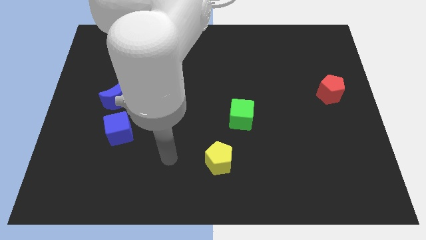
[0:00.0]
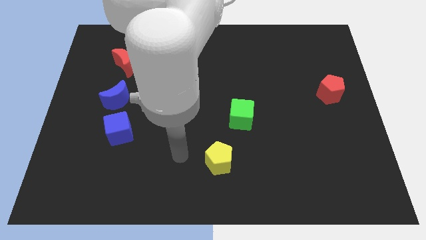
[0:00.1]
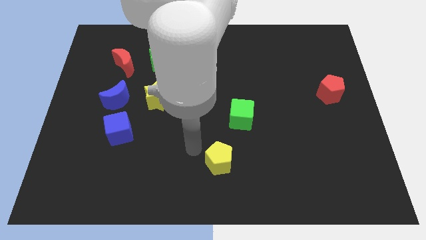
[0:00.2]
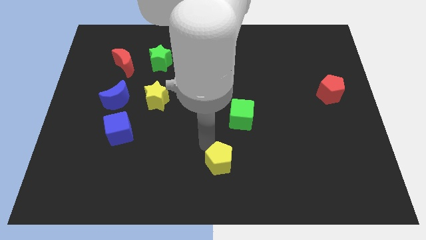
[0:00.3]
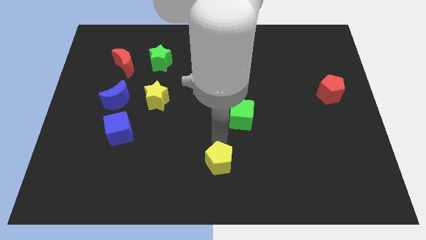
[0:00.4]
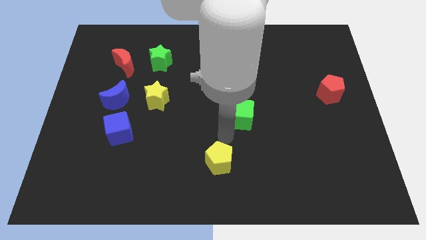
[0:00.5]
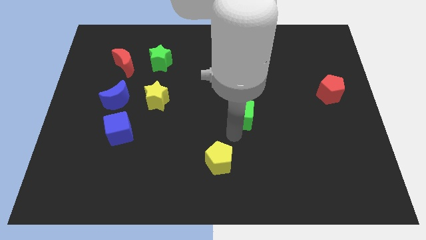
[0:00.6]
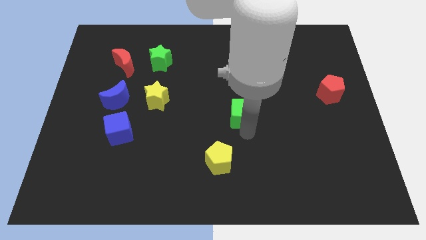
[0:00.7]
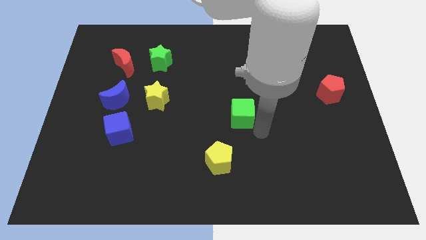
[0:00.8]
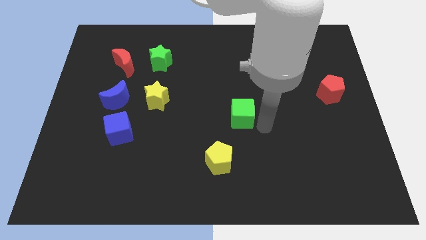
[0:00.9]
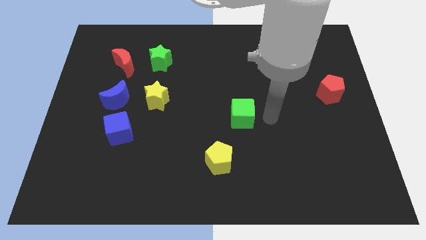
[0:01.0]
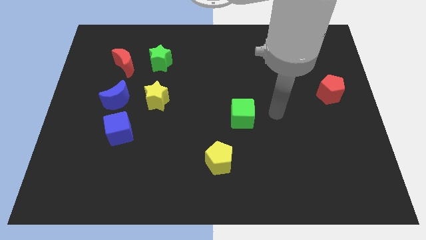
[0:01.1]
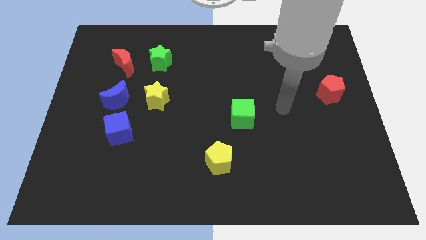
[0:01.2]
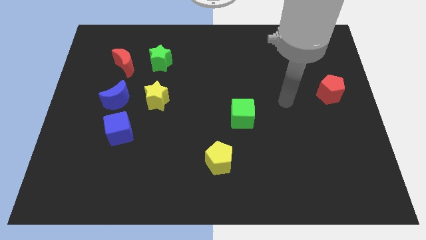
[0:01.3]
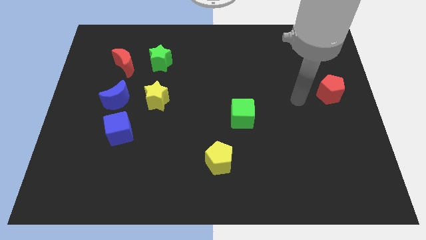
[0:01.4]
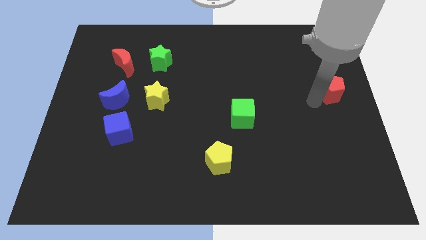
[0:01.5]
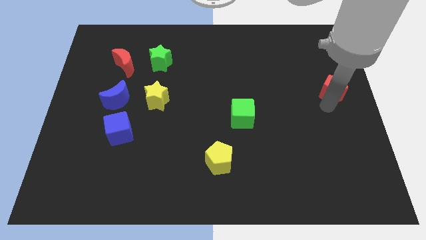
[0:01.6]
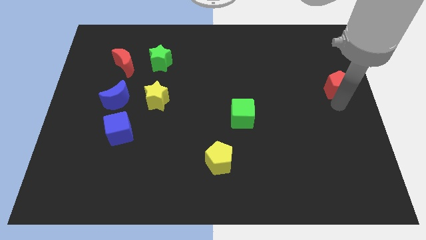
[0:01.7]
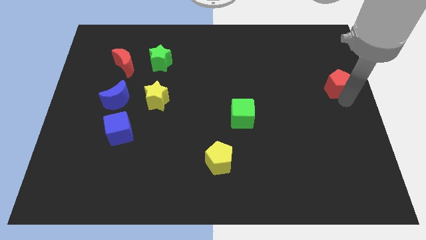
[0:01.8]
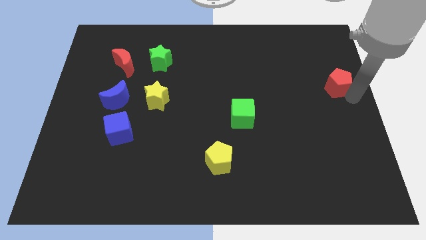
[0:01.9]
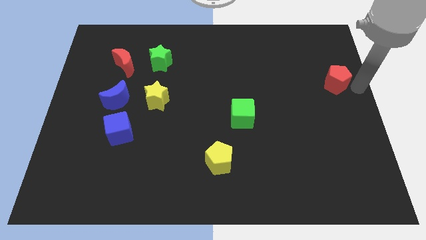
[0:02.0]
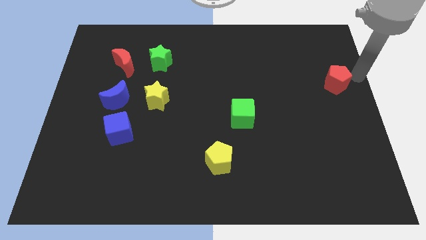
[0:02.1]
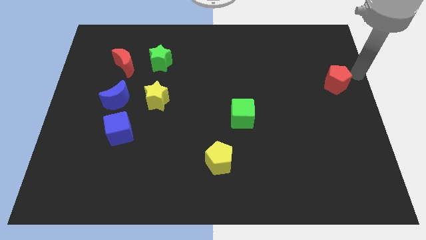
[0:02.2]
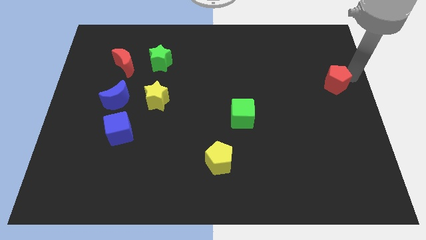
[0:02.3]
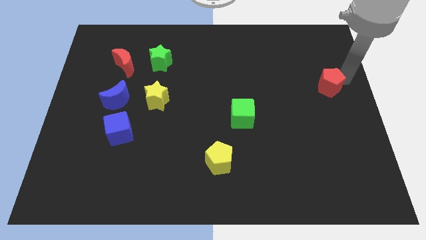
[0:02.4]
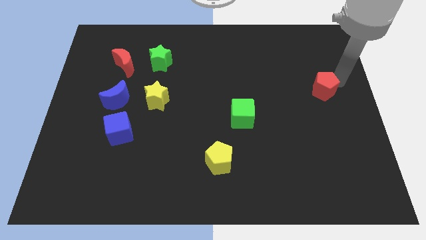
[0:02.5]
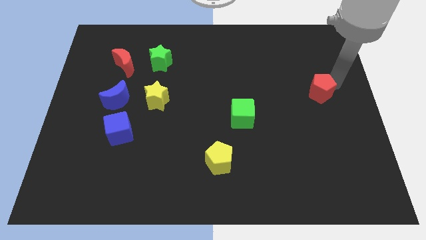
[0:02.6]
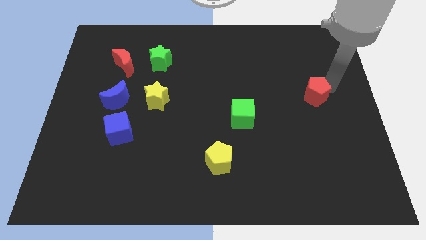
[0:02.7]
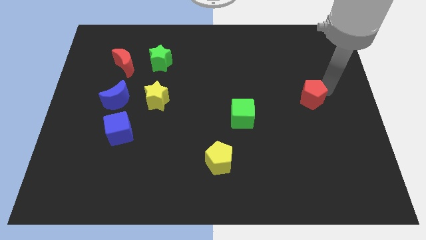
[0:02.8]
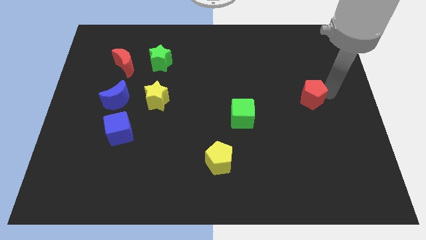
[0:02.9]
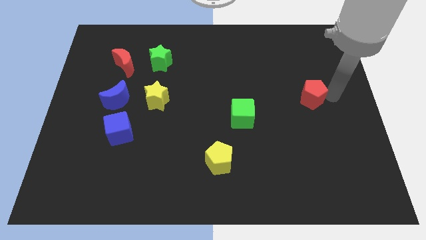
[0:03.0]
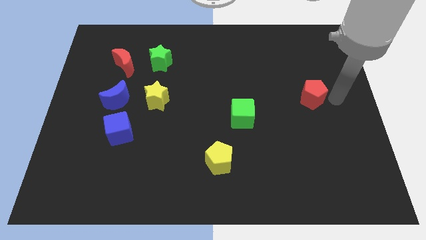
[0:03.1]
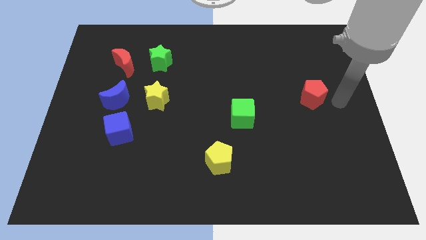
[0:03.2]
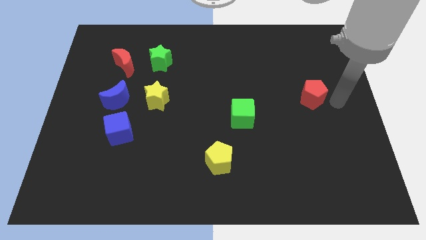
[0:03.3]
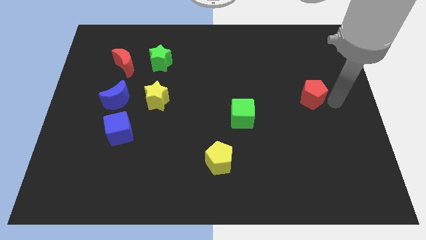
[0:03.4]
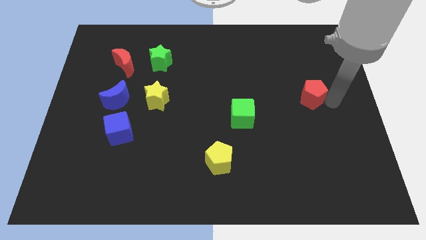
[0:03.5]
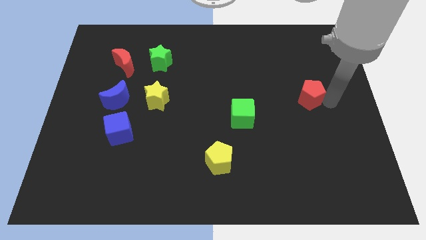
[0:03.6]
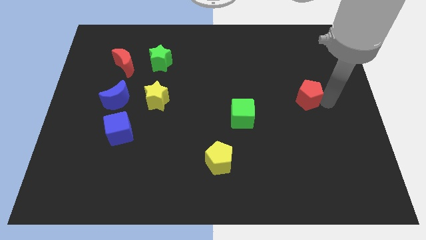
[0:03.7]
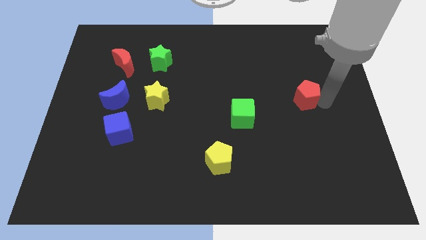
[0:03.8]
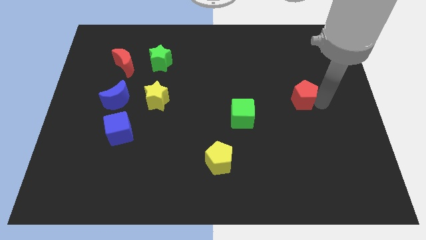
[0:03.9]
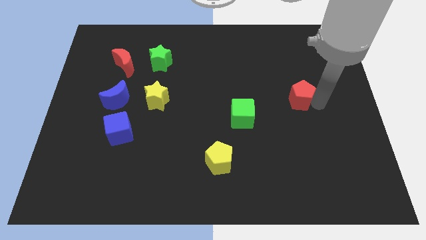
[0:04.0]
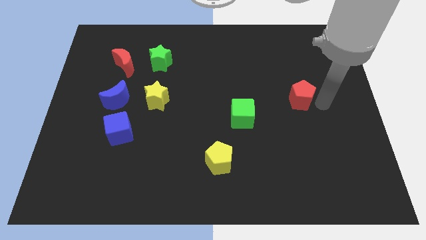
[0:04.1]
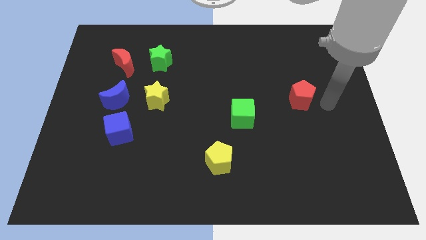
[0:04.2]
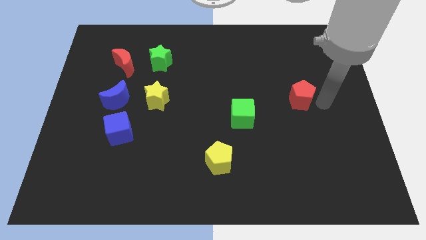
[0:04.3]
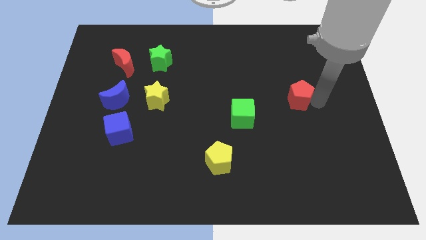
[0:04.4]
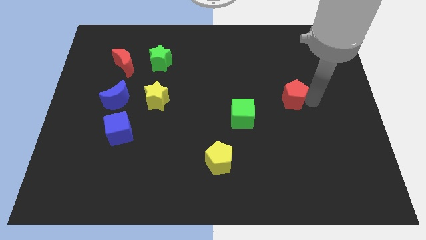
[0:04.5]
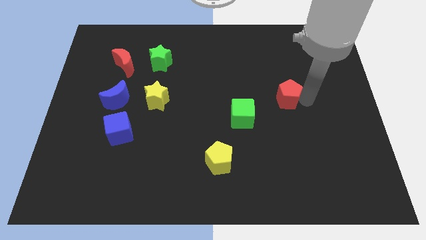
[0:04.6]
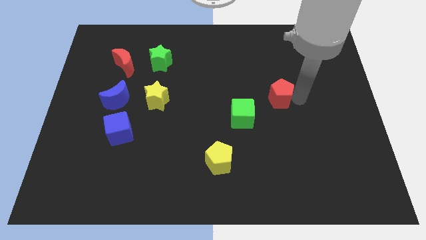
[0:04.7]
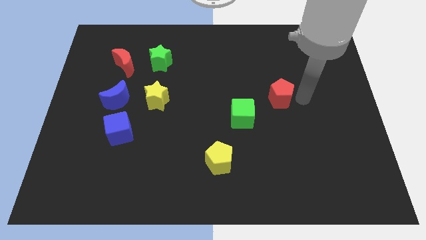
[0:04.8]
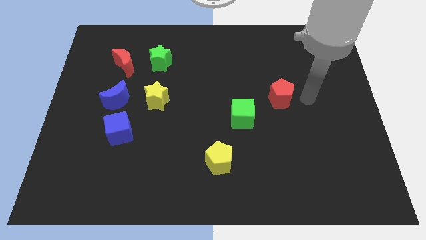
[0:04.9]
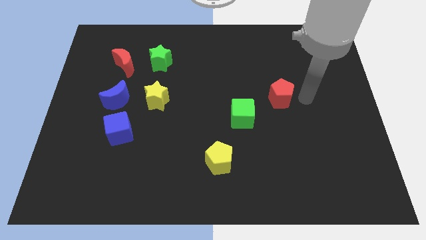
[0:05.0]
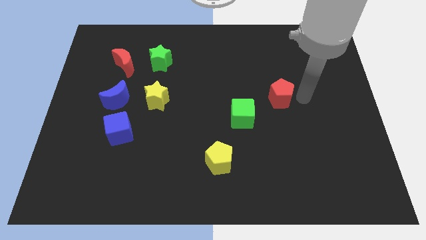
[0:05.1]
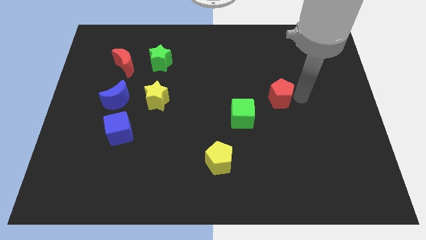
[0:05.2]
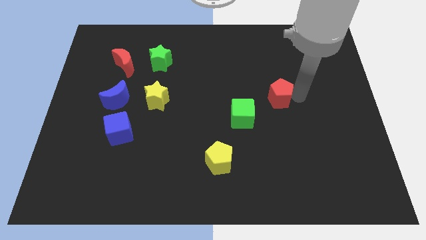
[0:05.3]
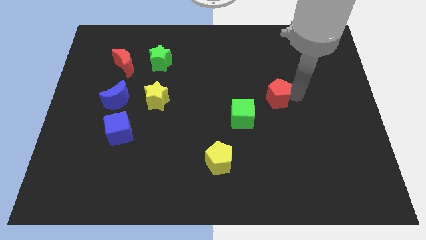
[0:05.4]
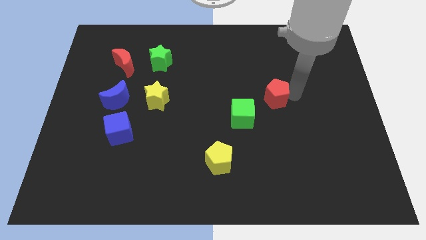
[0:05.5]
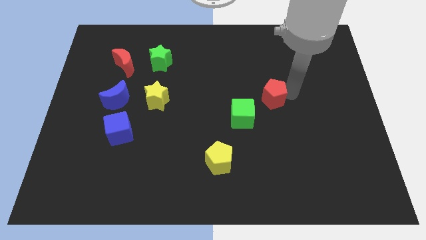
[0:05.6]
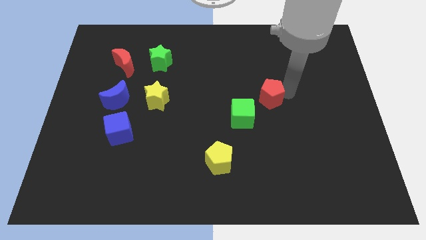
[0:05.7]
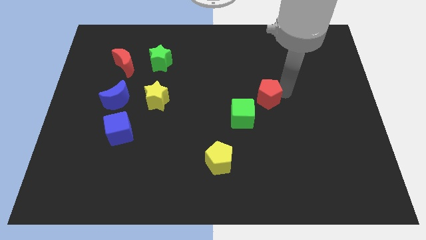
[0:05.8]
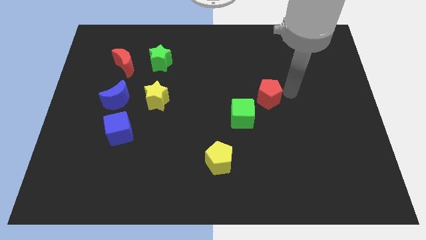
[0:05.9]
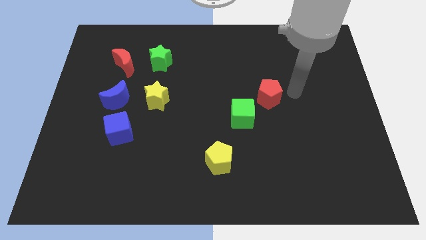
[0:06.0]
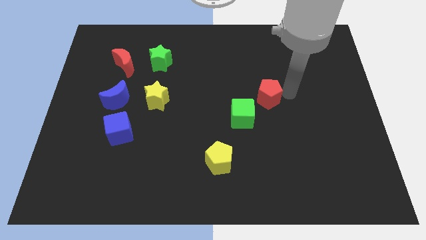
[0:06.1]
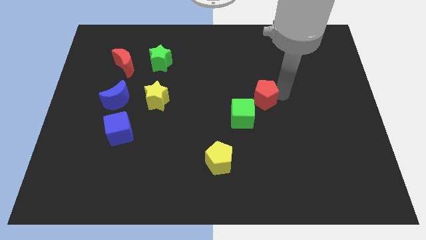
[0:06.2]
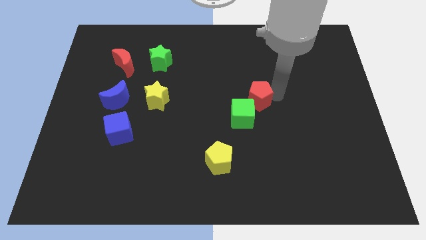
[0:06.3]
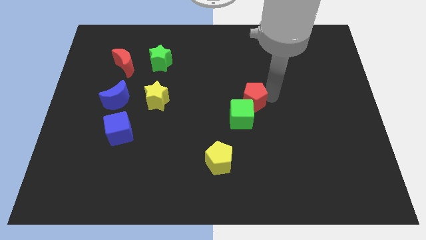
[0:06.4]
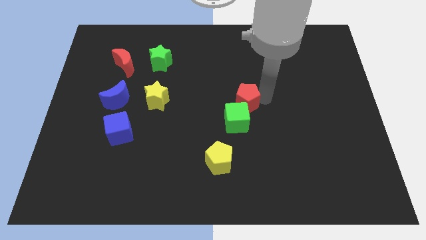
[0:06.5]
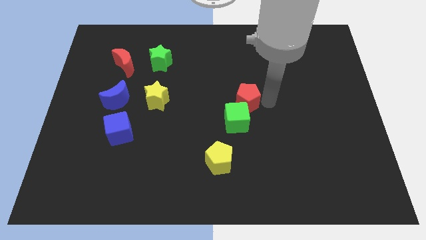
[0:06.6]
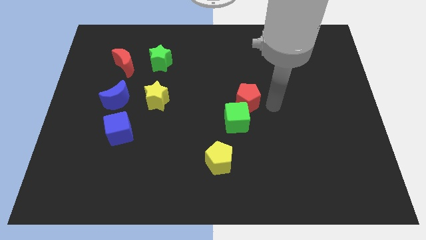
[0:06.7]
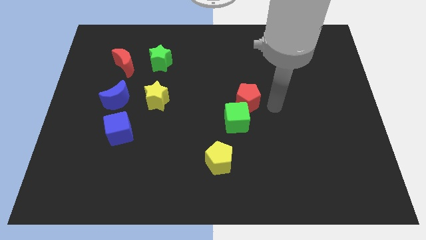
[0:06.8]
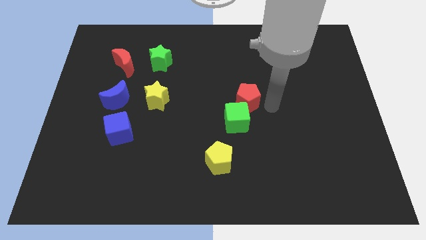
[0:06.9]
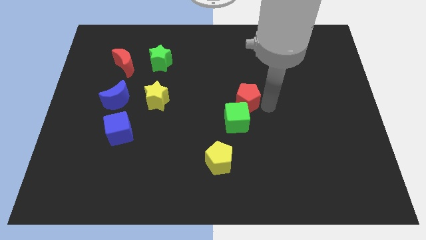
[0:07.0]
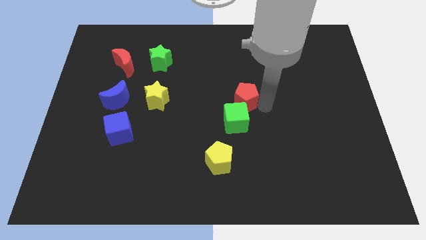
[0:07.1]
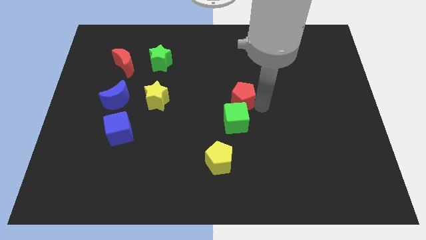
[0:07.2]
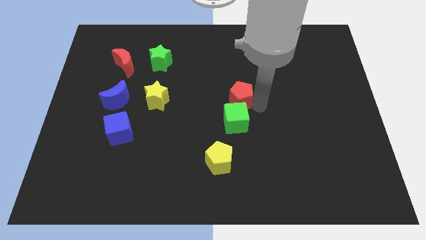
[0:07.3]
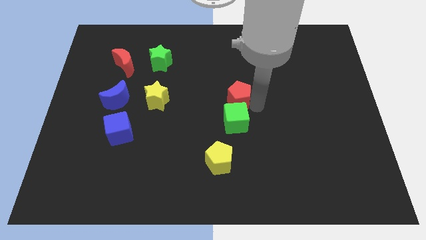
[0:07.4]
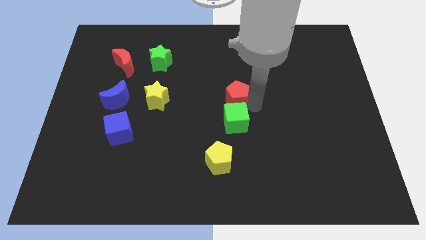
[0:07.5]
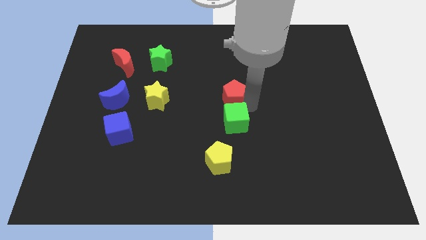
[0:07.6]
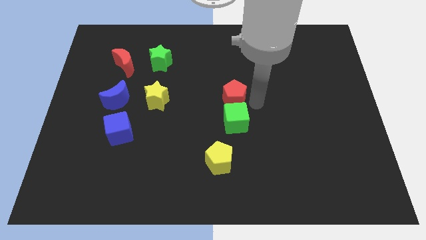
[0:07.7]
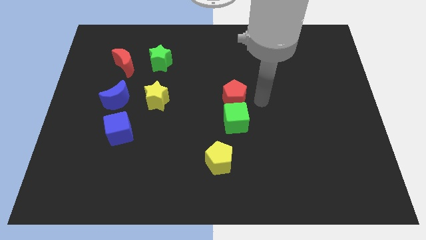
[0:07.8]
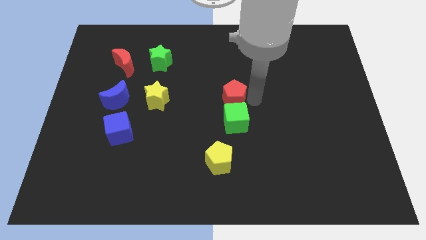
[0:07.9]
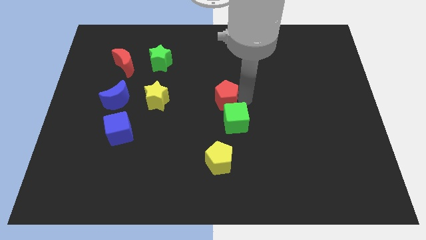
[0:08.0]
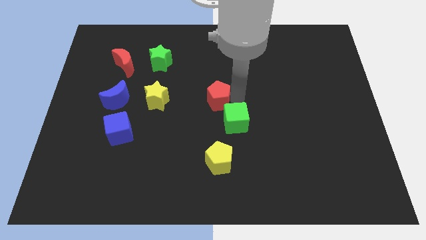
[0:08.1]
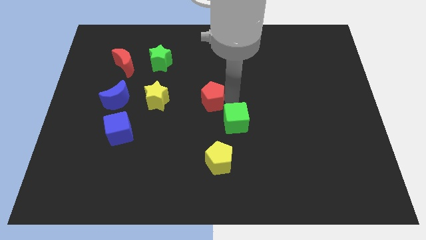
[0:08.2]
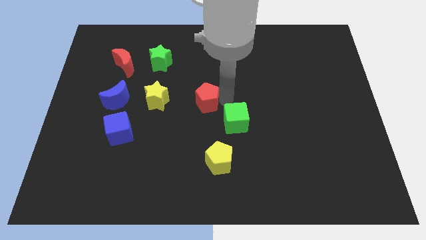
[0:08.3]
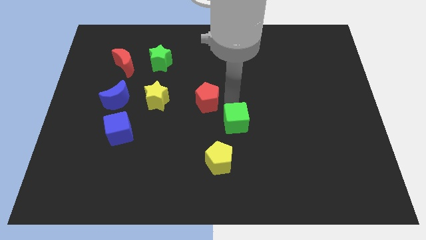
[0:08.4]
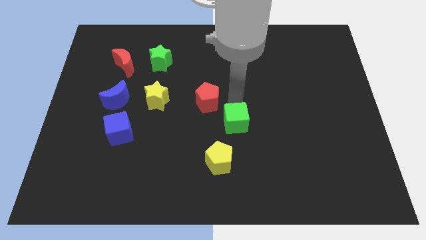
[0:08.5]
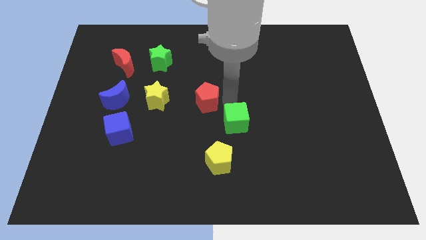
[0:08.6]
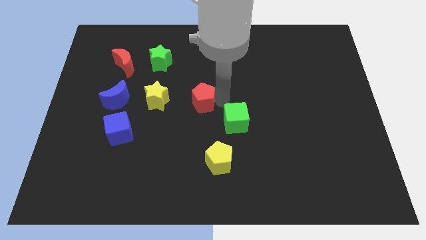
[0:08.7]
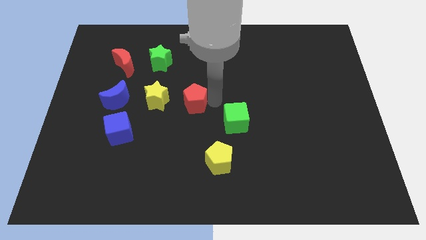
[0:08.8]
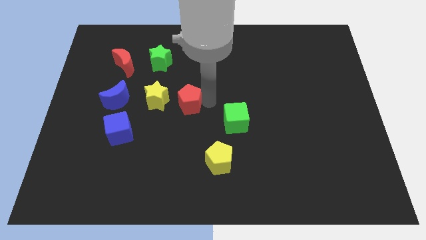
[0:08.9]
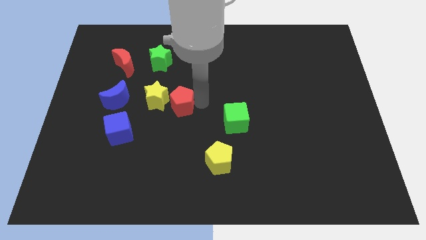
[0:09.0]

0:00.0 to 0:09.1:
push the red pentagon to the right side of the blue moon
